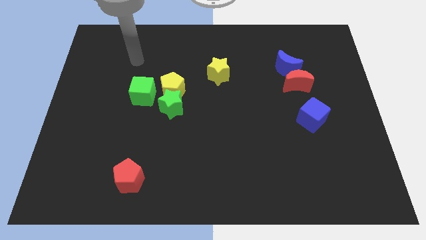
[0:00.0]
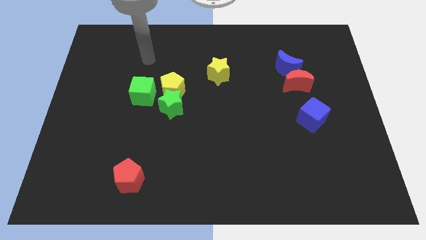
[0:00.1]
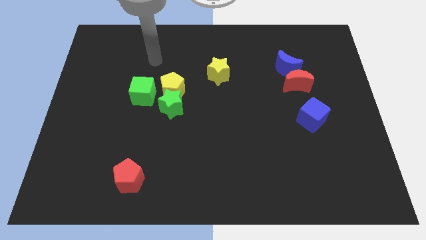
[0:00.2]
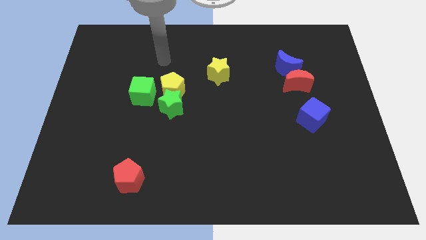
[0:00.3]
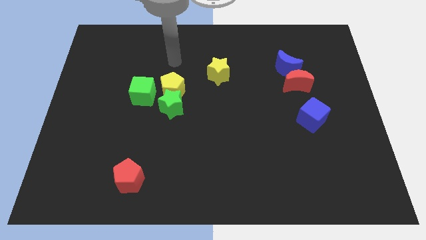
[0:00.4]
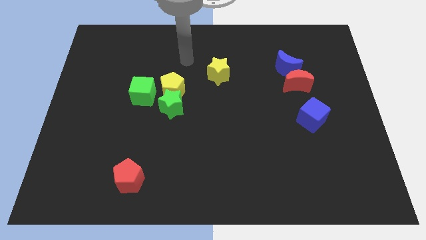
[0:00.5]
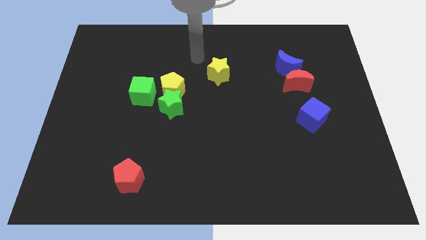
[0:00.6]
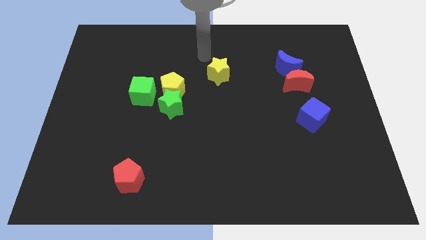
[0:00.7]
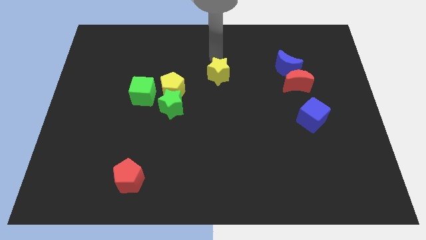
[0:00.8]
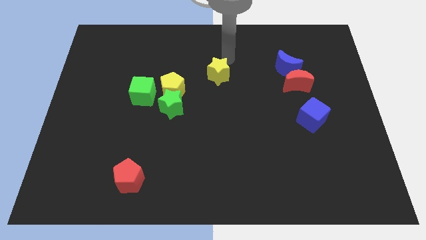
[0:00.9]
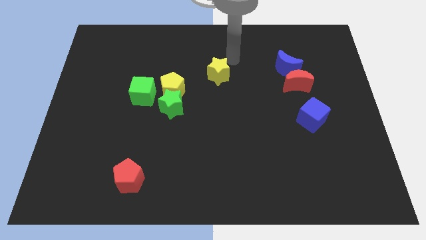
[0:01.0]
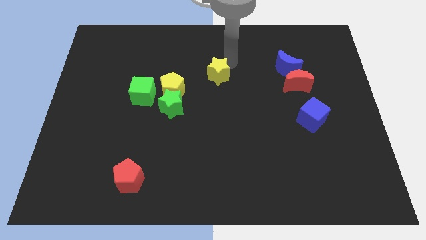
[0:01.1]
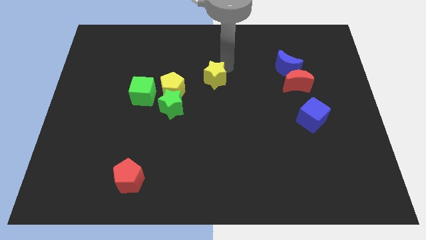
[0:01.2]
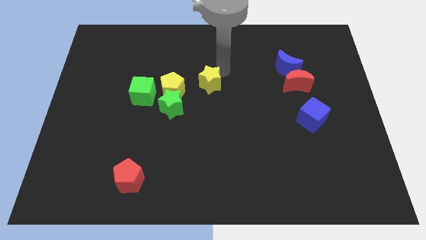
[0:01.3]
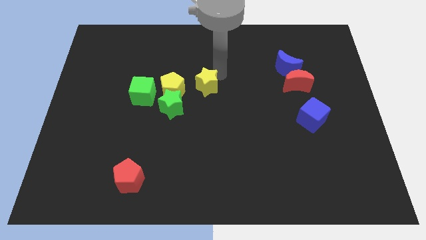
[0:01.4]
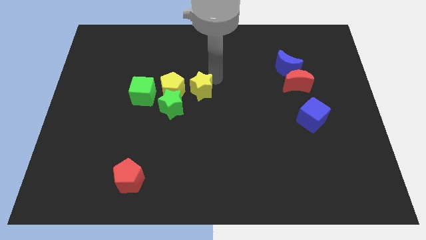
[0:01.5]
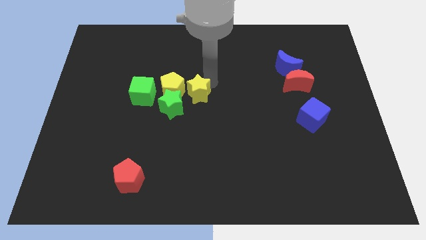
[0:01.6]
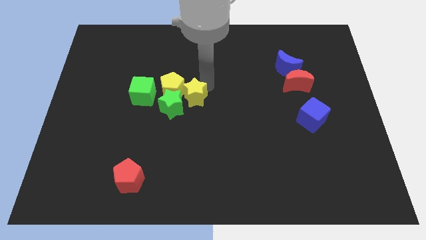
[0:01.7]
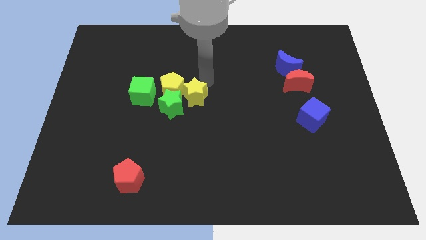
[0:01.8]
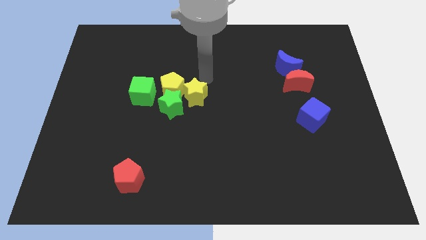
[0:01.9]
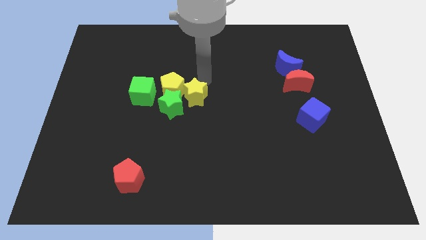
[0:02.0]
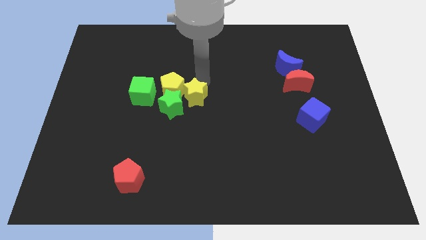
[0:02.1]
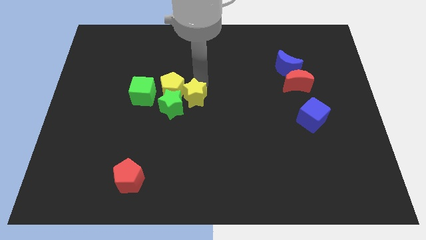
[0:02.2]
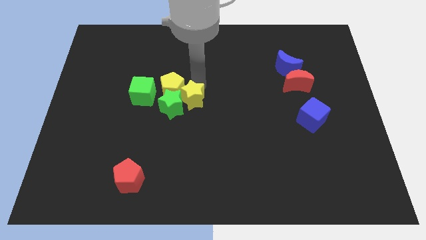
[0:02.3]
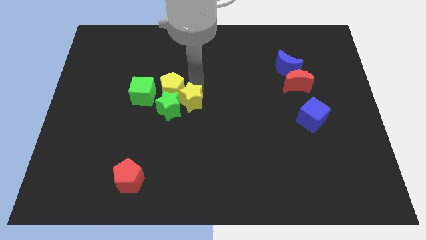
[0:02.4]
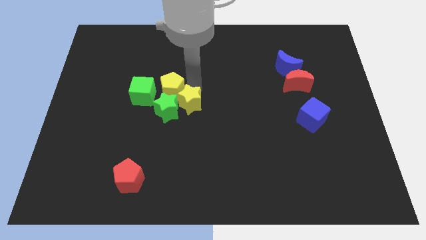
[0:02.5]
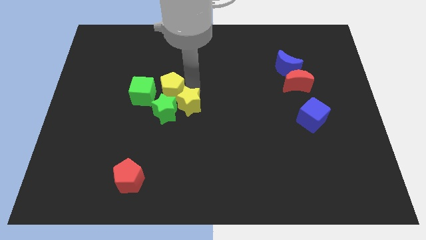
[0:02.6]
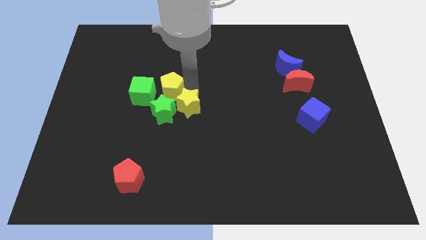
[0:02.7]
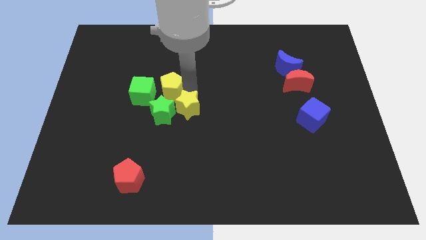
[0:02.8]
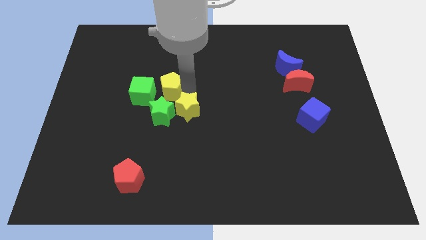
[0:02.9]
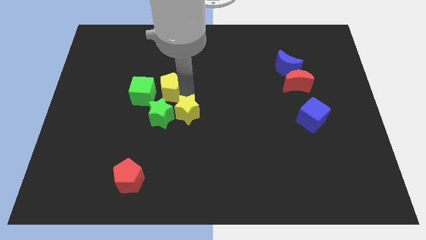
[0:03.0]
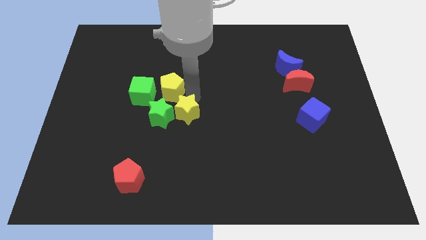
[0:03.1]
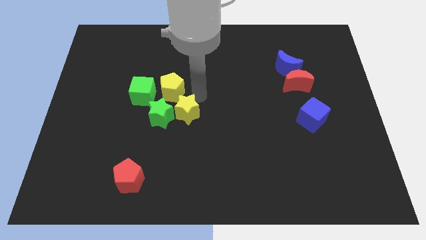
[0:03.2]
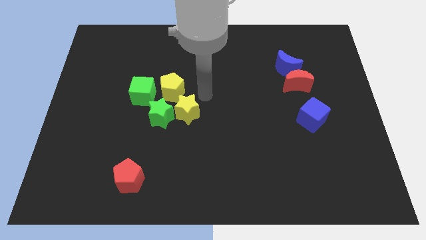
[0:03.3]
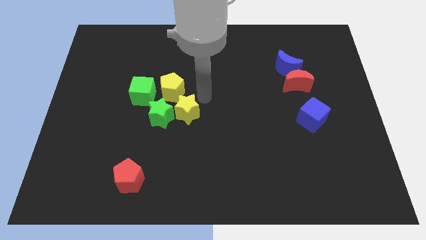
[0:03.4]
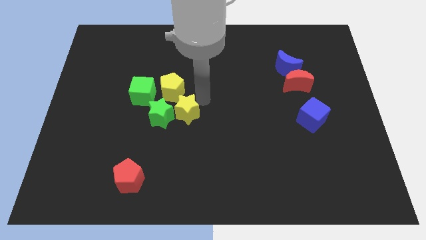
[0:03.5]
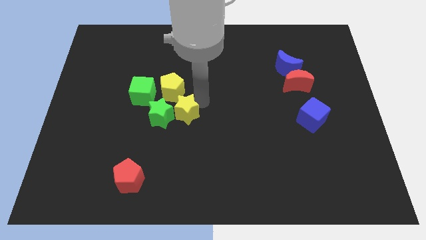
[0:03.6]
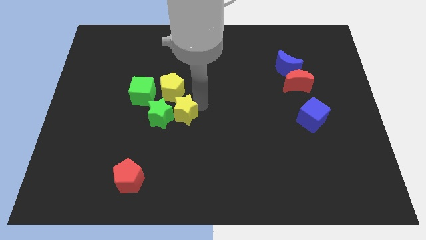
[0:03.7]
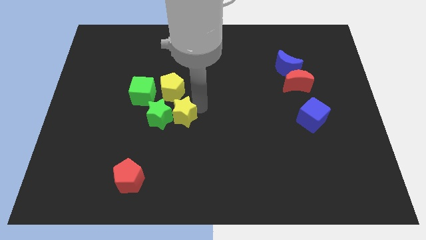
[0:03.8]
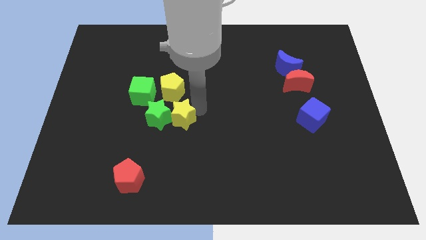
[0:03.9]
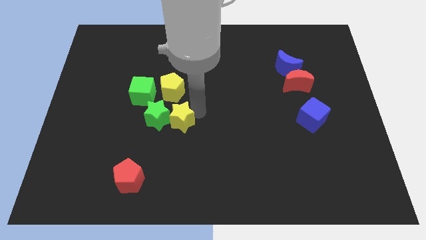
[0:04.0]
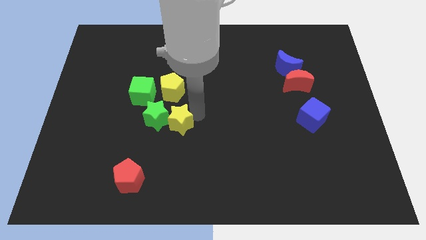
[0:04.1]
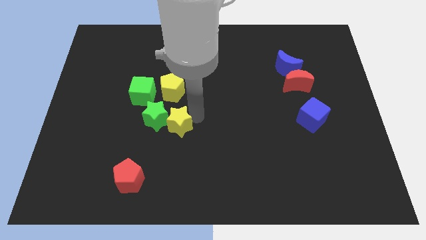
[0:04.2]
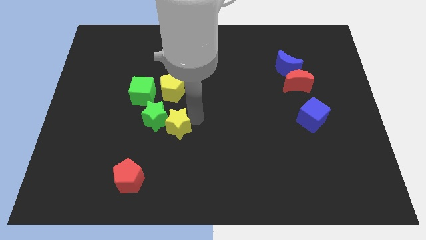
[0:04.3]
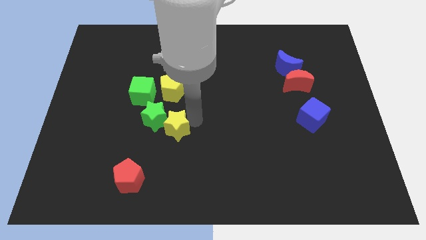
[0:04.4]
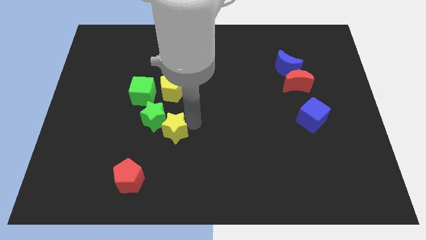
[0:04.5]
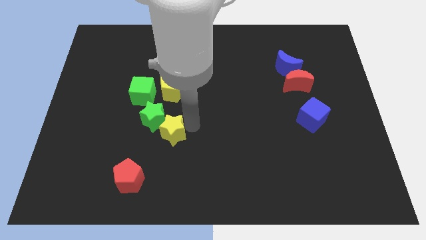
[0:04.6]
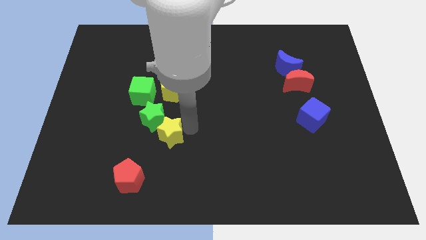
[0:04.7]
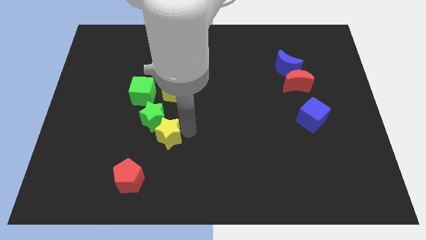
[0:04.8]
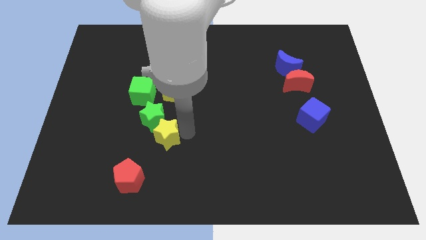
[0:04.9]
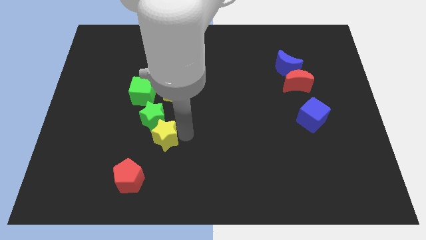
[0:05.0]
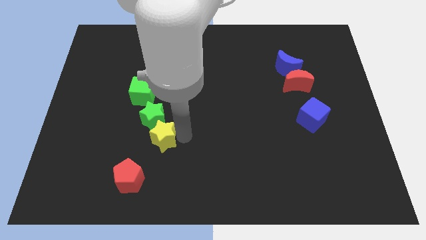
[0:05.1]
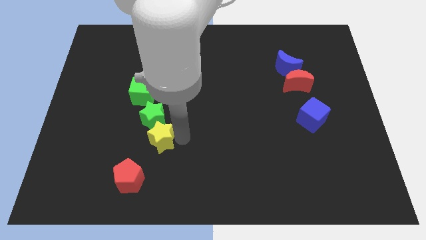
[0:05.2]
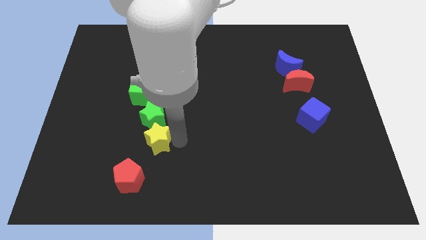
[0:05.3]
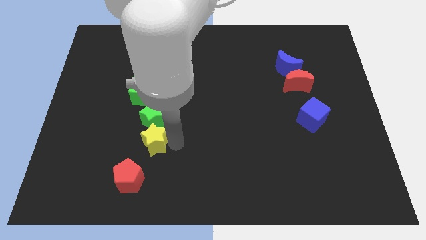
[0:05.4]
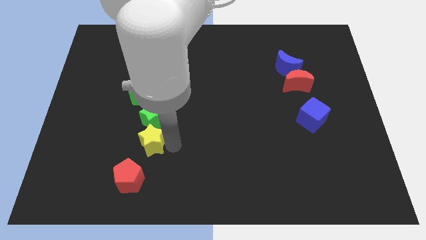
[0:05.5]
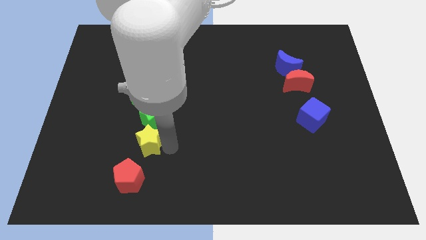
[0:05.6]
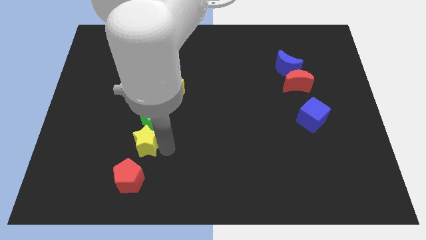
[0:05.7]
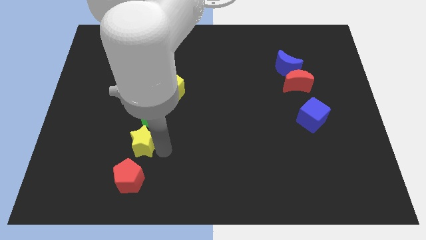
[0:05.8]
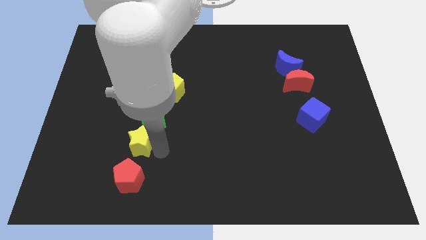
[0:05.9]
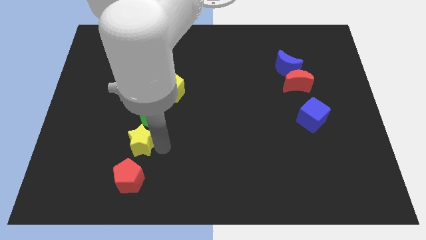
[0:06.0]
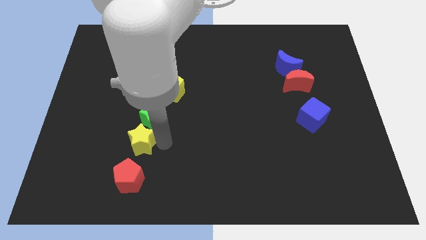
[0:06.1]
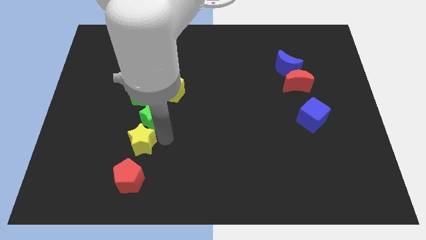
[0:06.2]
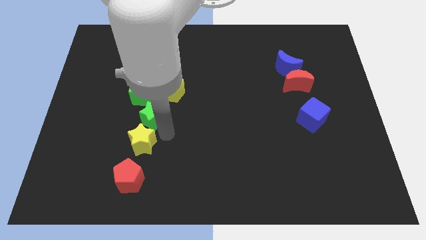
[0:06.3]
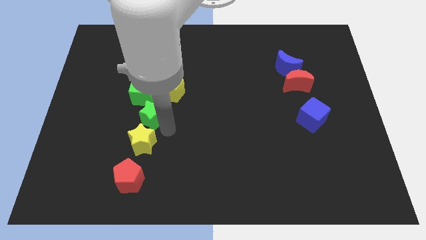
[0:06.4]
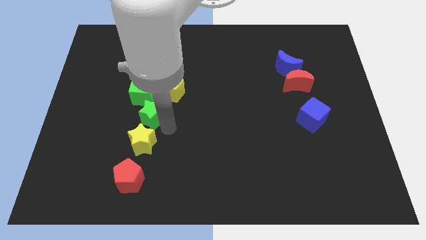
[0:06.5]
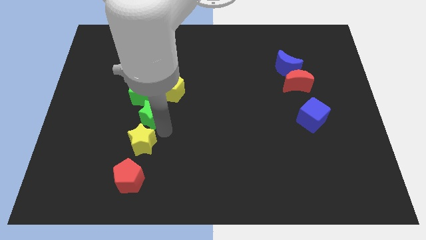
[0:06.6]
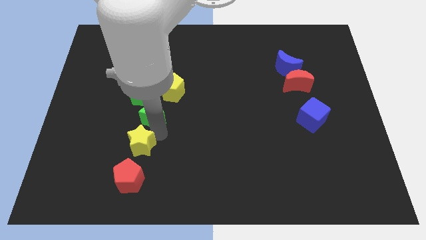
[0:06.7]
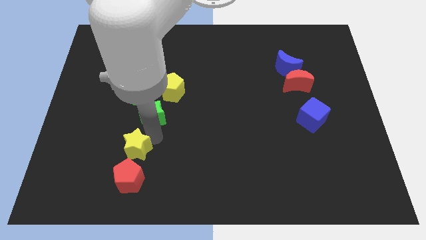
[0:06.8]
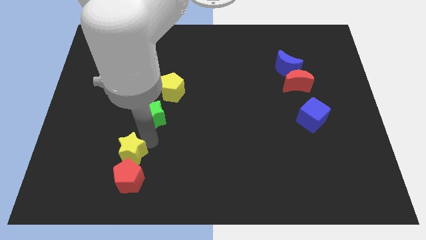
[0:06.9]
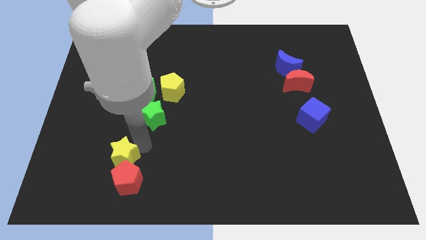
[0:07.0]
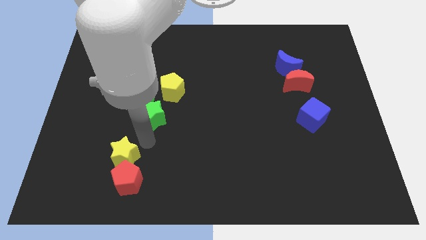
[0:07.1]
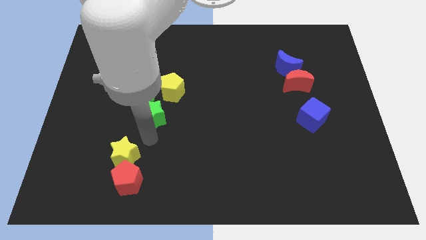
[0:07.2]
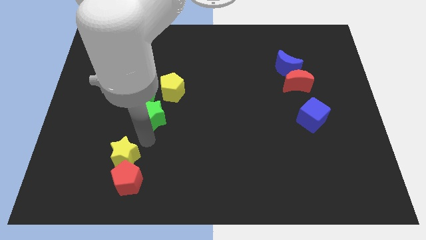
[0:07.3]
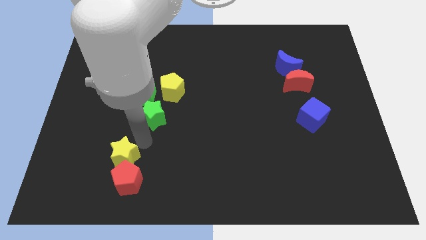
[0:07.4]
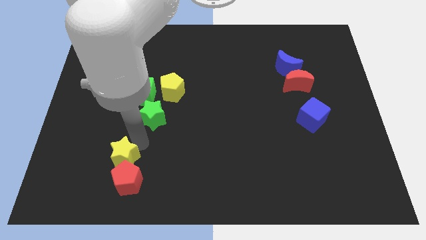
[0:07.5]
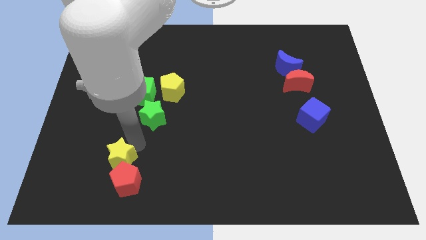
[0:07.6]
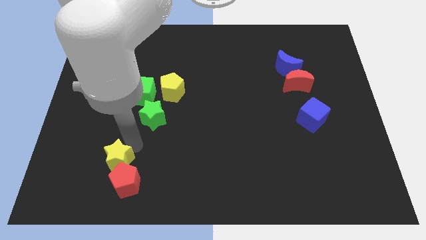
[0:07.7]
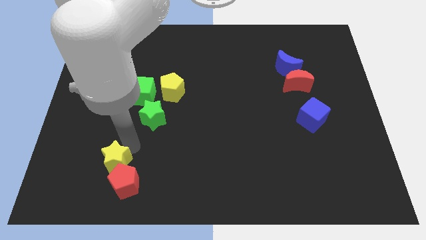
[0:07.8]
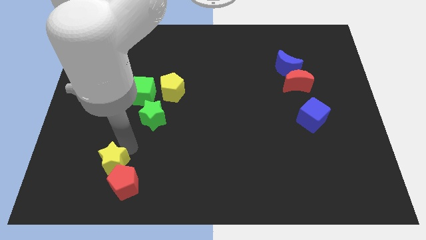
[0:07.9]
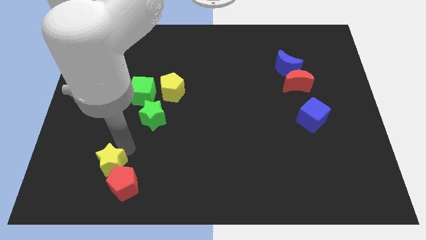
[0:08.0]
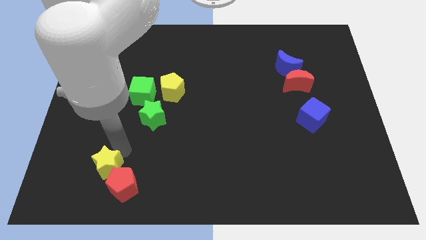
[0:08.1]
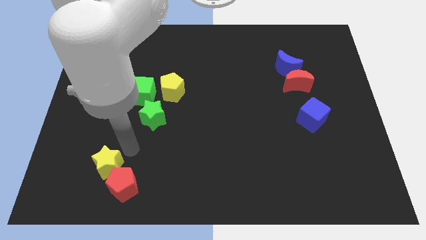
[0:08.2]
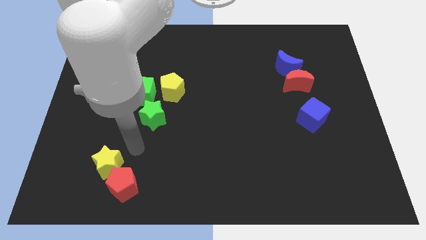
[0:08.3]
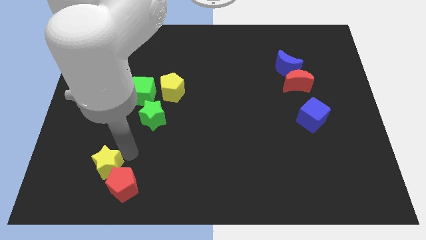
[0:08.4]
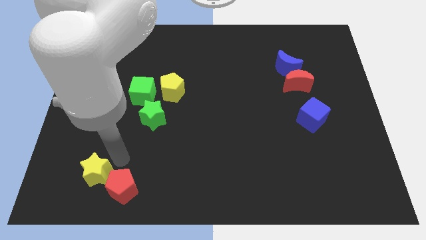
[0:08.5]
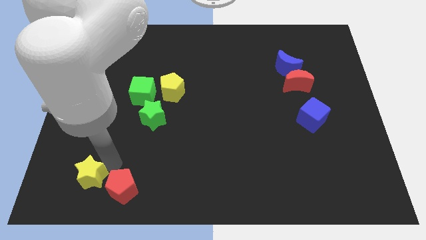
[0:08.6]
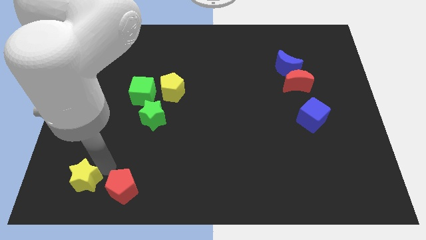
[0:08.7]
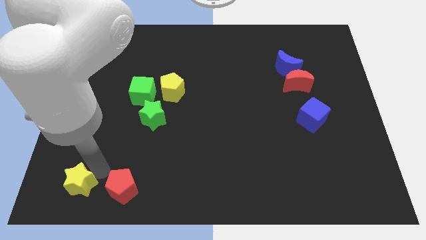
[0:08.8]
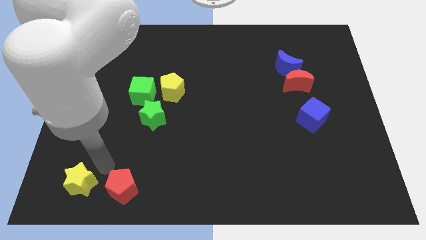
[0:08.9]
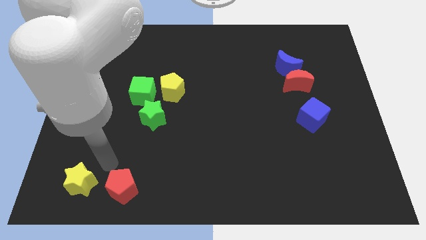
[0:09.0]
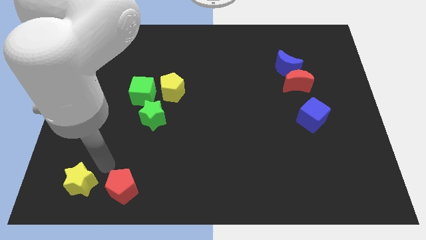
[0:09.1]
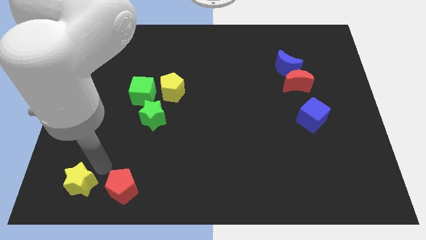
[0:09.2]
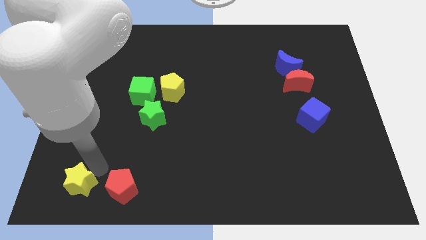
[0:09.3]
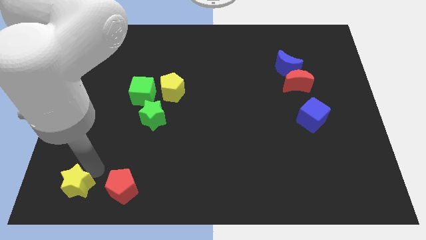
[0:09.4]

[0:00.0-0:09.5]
move the yellow star to the lower left corner
